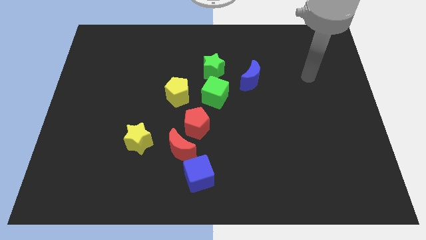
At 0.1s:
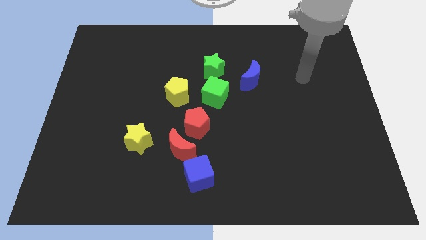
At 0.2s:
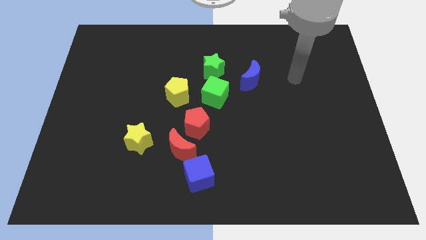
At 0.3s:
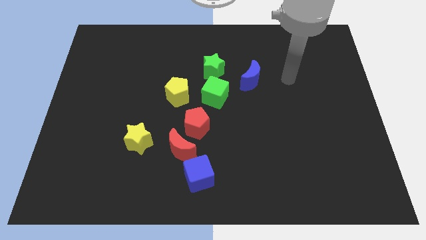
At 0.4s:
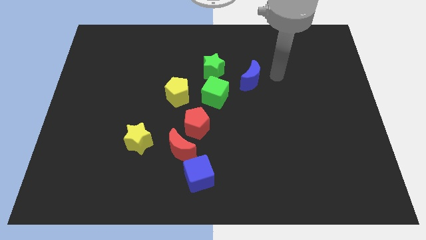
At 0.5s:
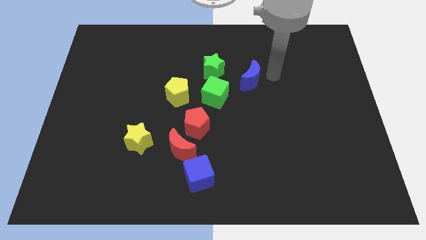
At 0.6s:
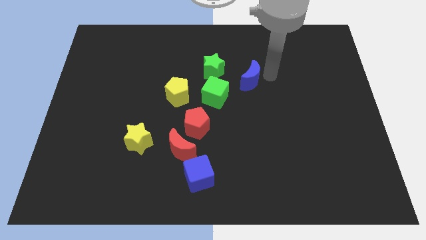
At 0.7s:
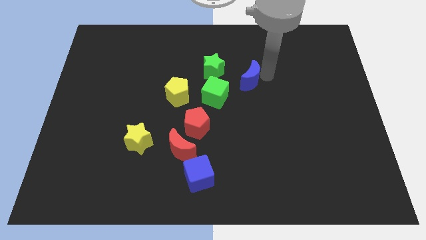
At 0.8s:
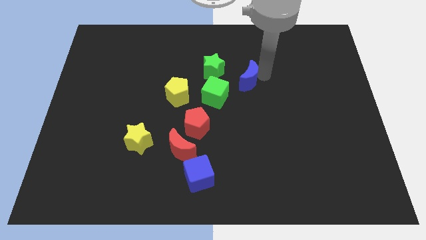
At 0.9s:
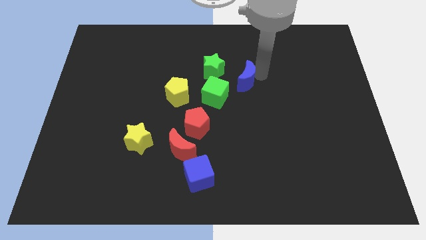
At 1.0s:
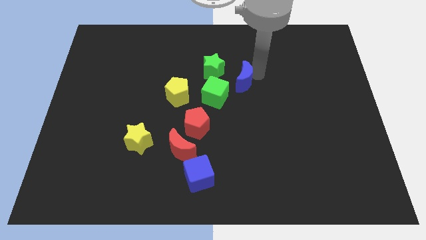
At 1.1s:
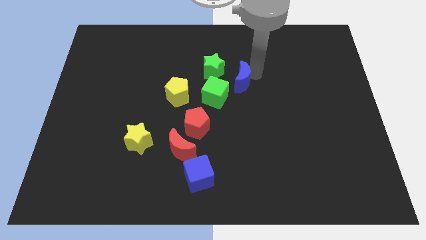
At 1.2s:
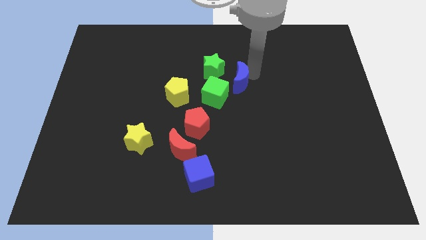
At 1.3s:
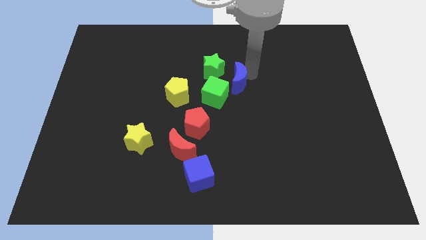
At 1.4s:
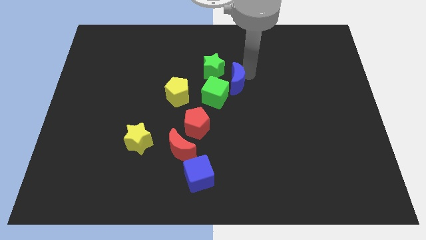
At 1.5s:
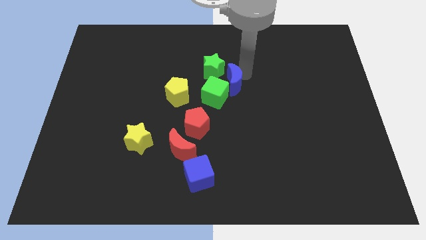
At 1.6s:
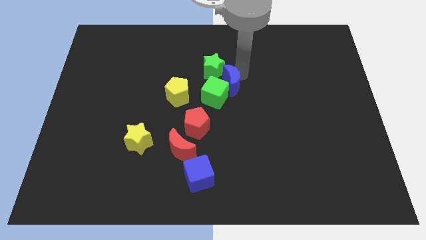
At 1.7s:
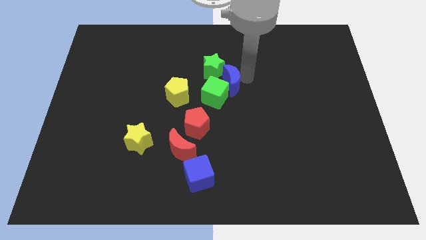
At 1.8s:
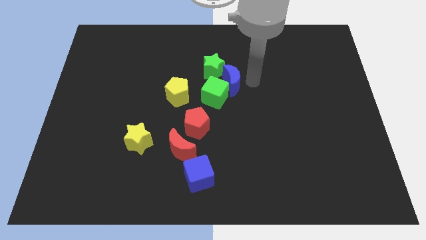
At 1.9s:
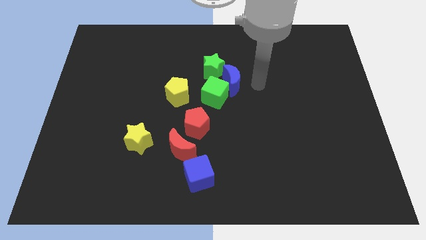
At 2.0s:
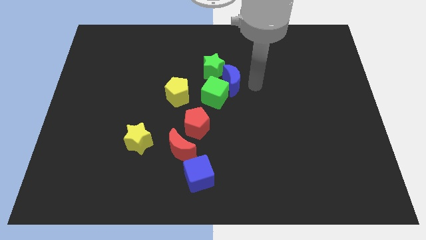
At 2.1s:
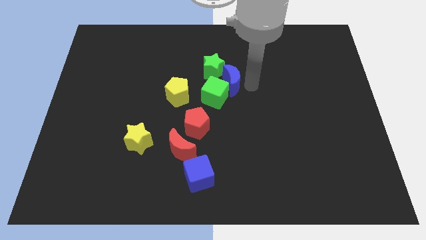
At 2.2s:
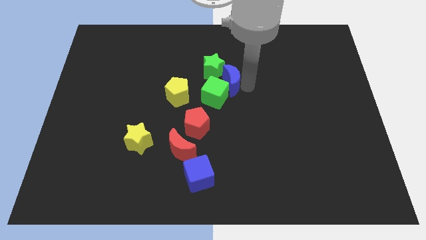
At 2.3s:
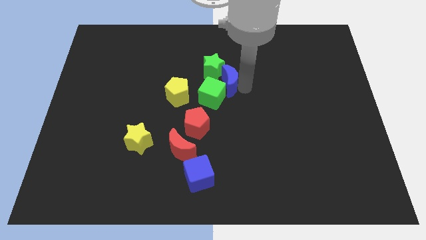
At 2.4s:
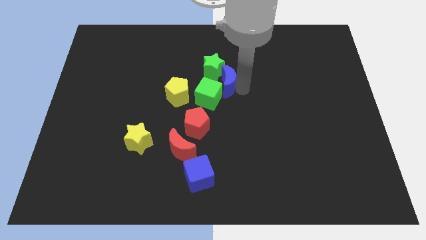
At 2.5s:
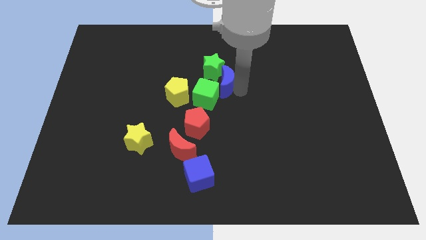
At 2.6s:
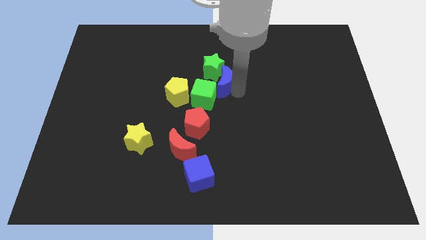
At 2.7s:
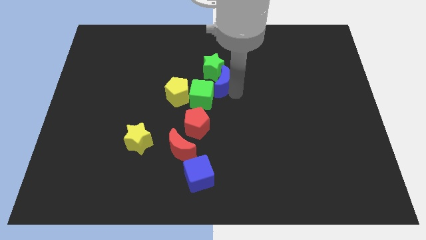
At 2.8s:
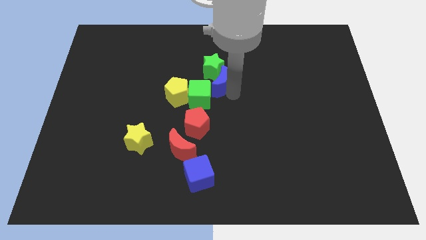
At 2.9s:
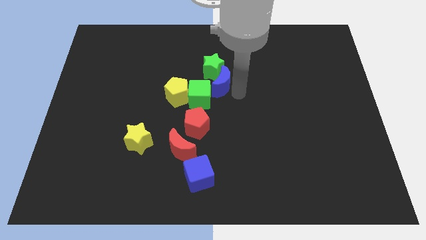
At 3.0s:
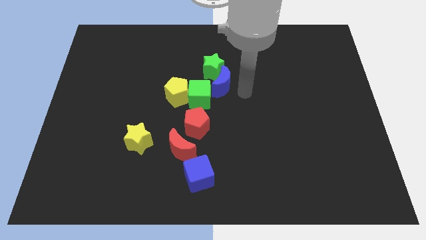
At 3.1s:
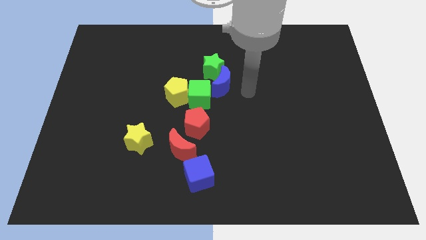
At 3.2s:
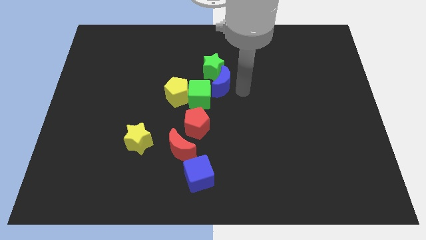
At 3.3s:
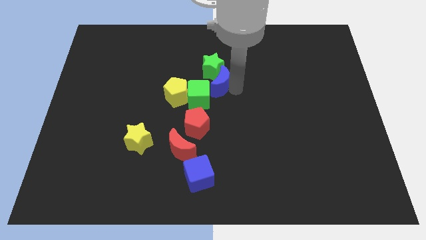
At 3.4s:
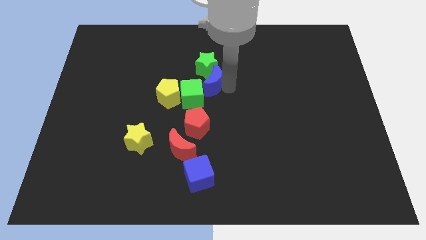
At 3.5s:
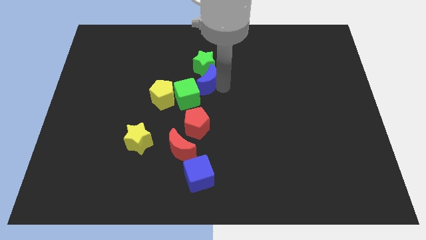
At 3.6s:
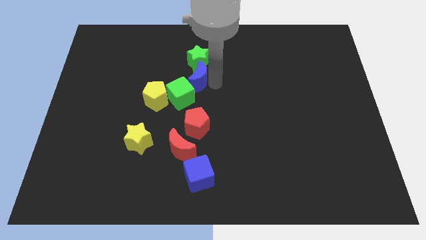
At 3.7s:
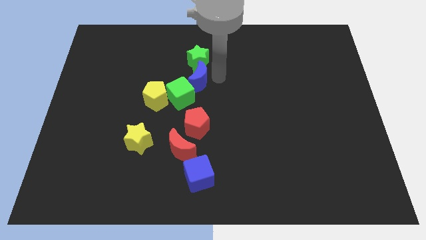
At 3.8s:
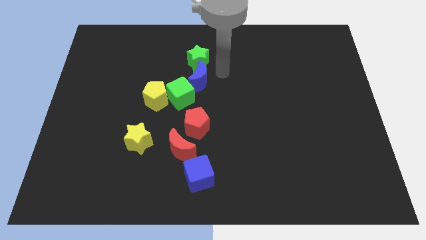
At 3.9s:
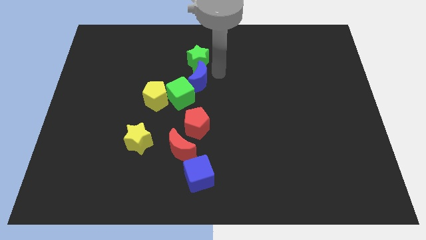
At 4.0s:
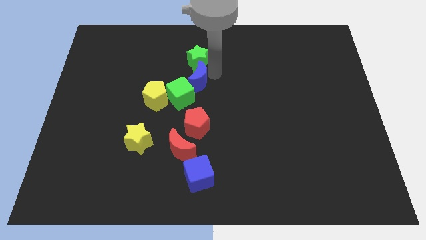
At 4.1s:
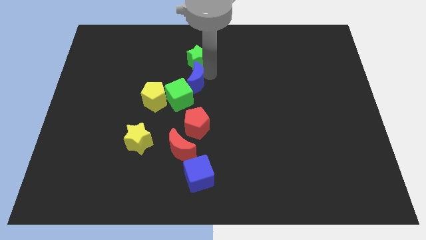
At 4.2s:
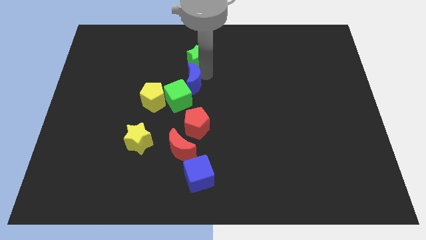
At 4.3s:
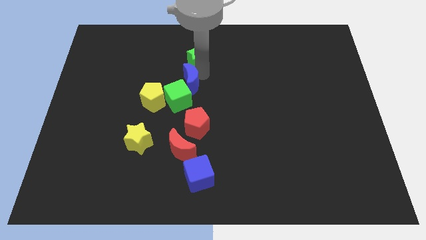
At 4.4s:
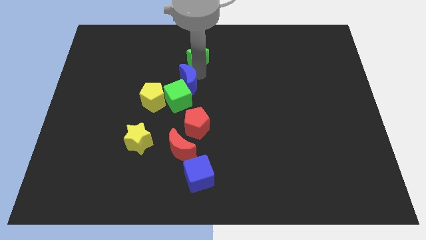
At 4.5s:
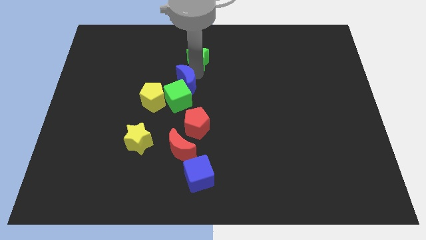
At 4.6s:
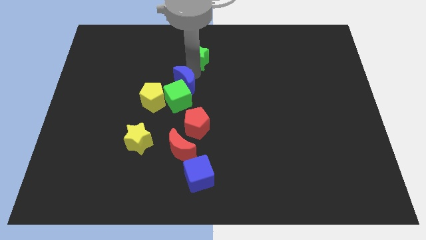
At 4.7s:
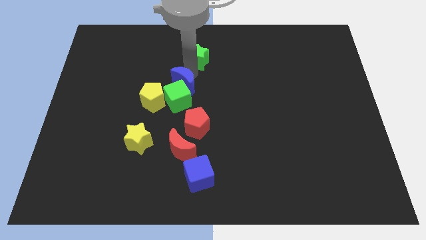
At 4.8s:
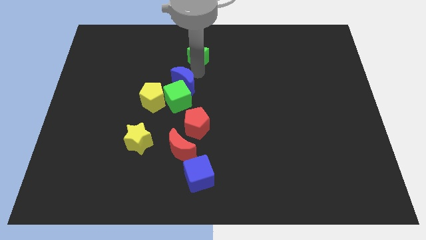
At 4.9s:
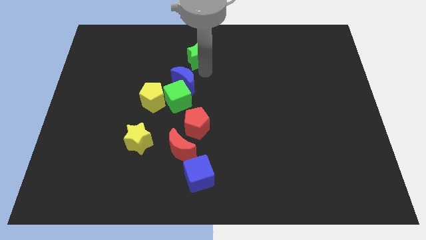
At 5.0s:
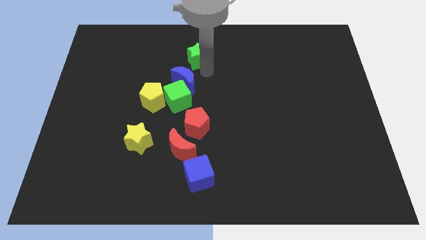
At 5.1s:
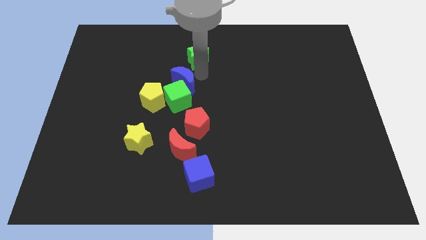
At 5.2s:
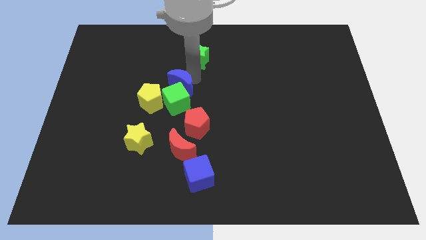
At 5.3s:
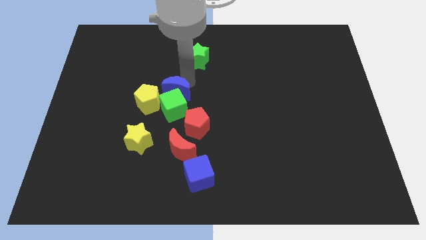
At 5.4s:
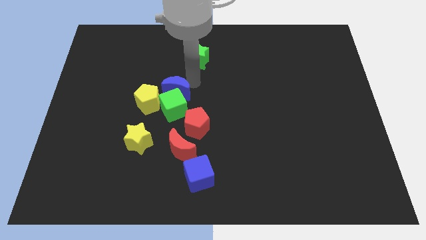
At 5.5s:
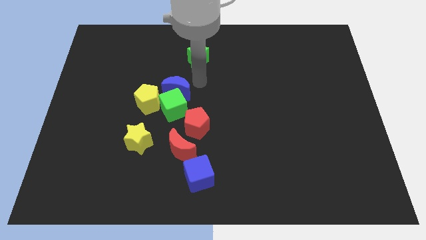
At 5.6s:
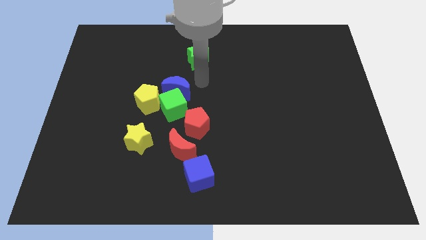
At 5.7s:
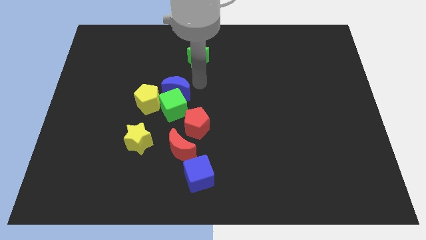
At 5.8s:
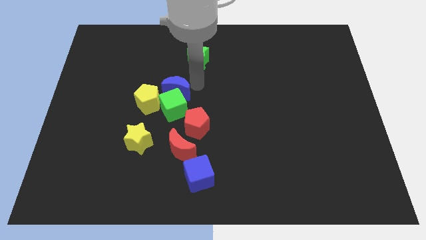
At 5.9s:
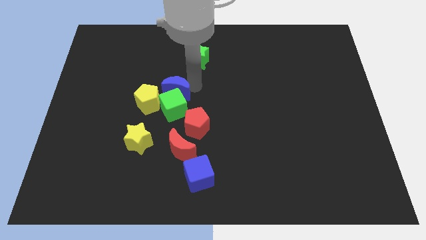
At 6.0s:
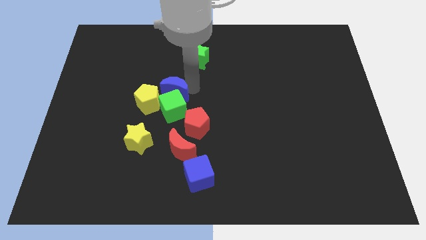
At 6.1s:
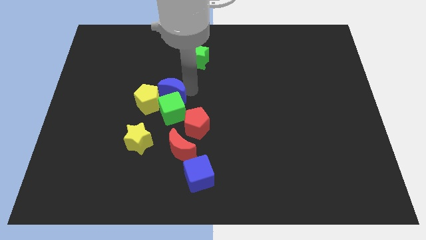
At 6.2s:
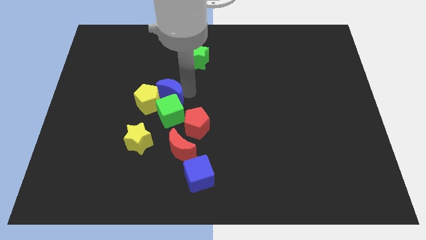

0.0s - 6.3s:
push the blue moon next to the yellow pentagon

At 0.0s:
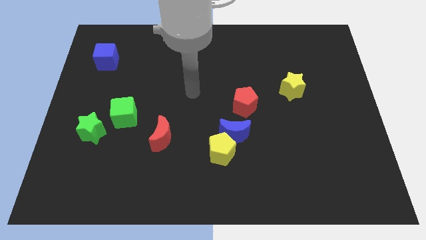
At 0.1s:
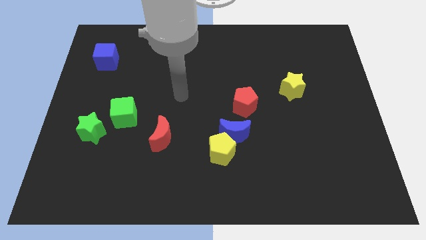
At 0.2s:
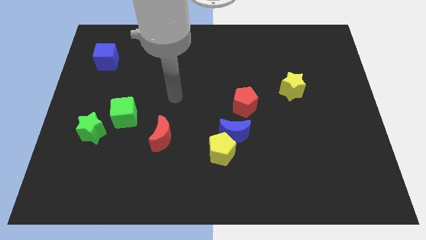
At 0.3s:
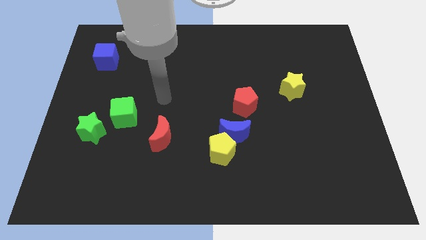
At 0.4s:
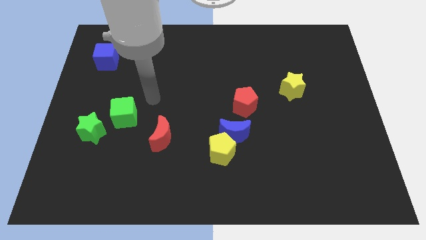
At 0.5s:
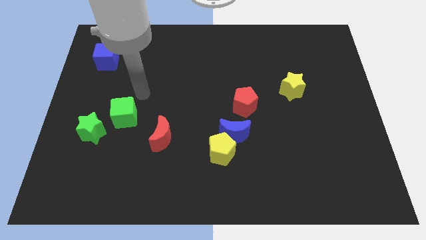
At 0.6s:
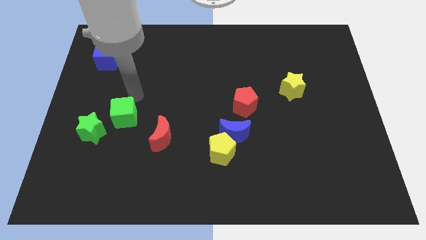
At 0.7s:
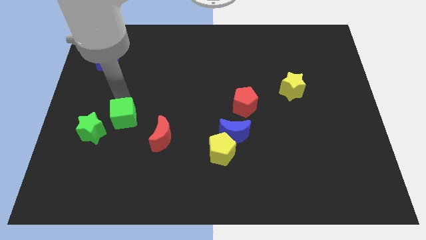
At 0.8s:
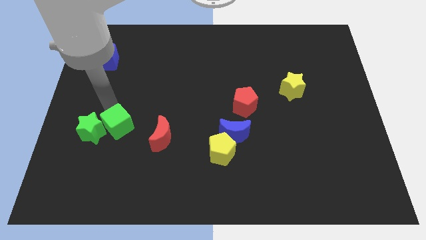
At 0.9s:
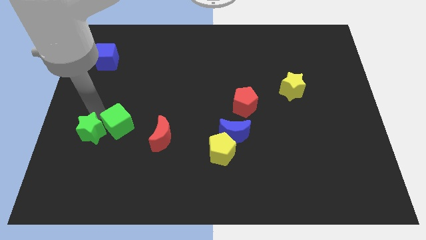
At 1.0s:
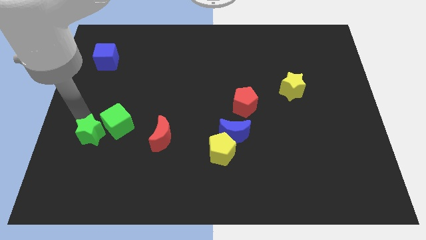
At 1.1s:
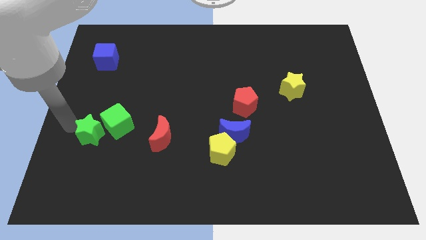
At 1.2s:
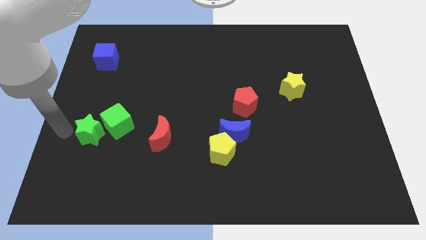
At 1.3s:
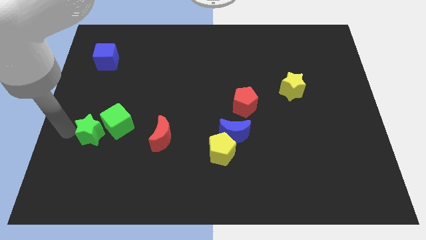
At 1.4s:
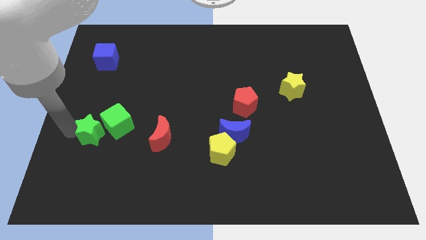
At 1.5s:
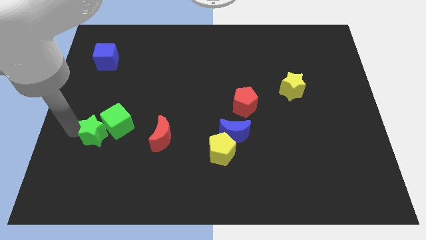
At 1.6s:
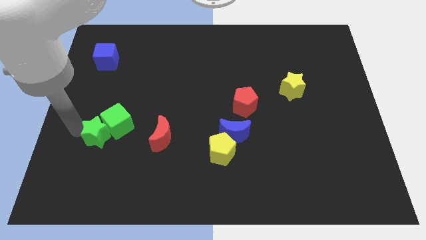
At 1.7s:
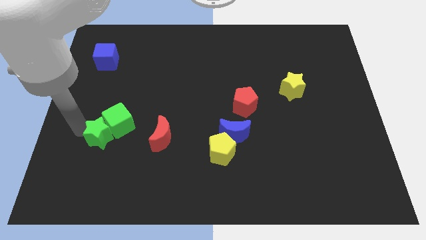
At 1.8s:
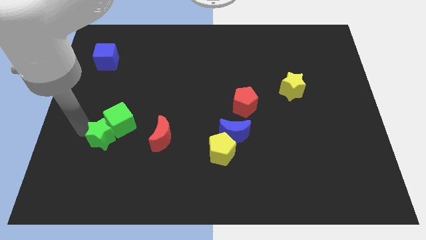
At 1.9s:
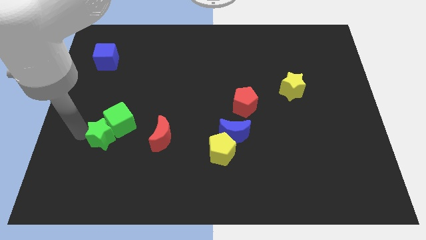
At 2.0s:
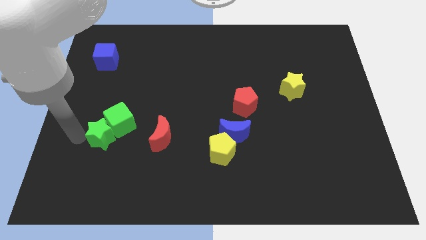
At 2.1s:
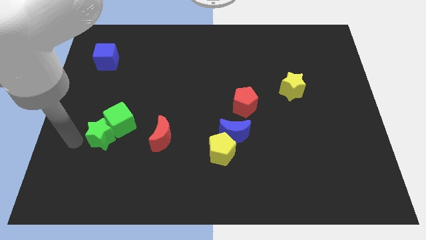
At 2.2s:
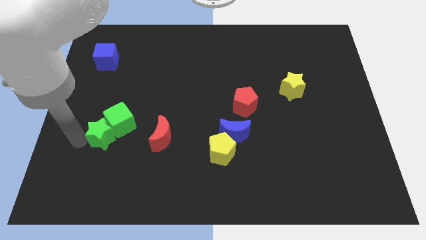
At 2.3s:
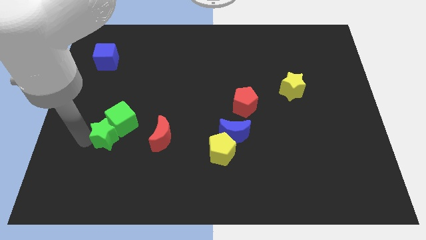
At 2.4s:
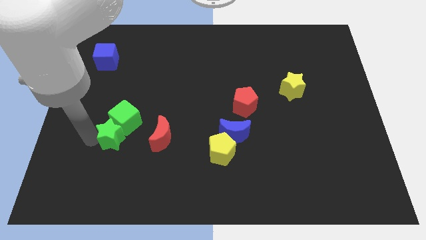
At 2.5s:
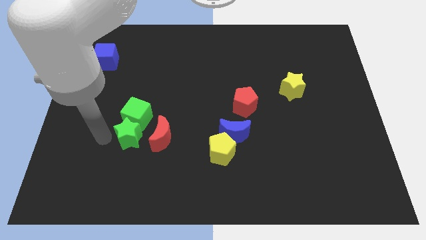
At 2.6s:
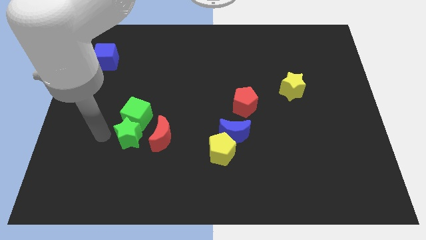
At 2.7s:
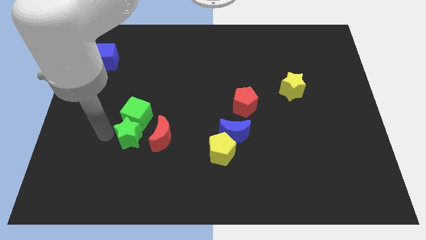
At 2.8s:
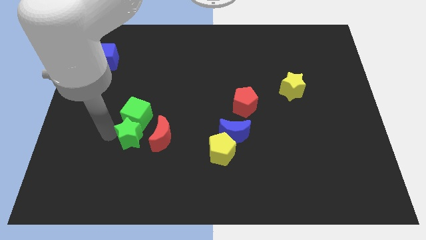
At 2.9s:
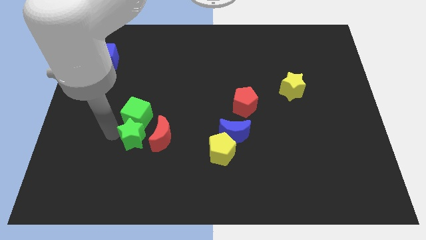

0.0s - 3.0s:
move the green star close to the red moon
